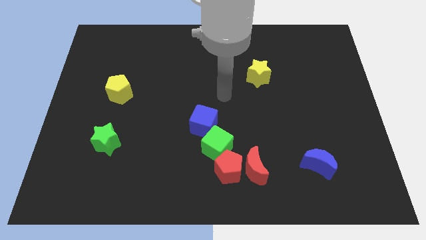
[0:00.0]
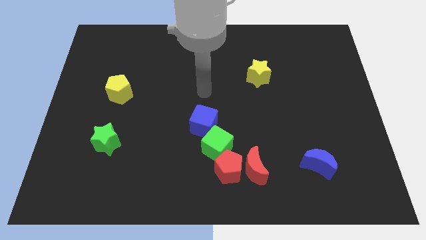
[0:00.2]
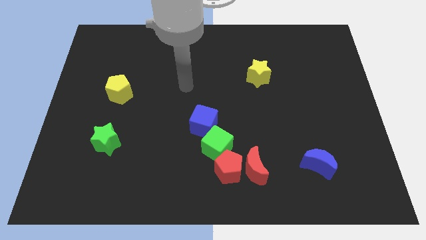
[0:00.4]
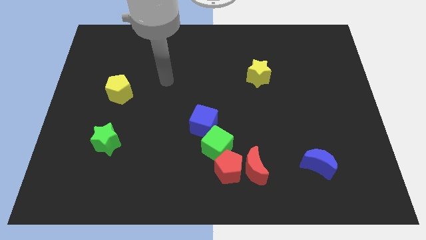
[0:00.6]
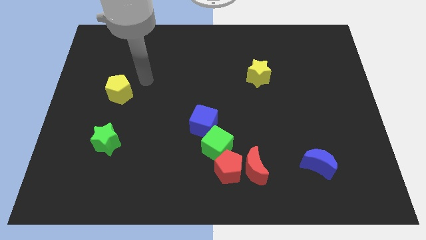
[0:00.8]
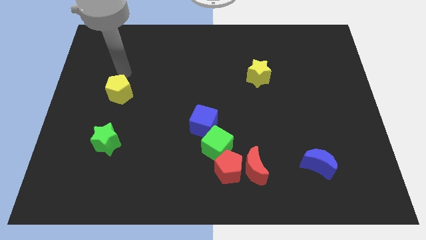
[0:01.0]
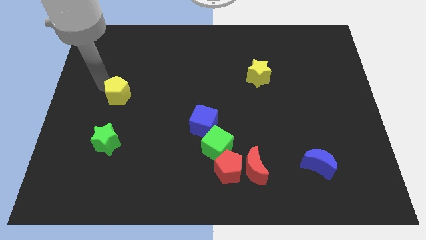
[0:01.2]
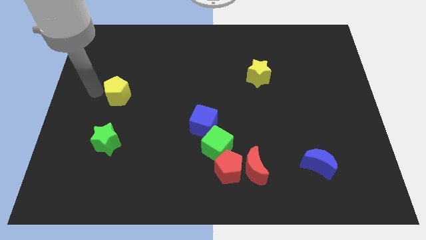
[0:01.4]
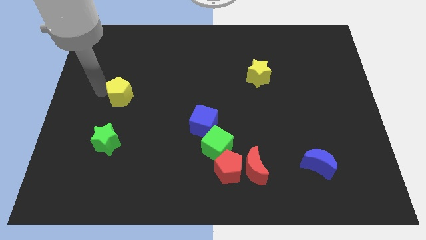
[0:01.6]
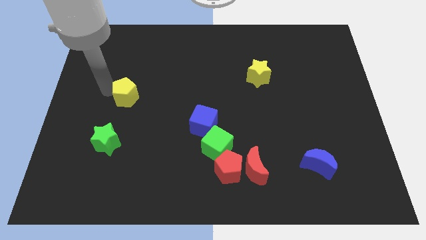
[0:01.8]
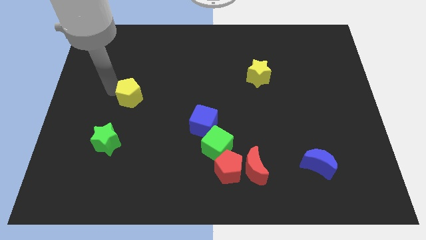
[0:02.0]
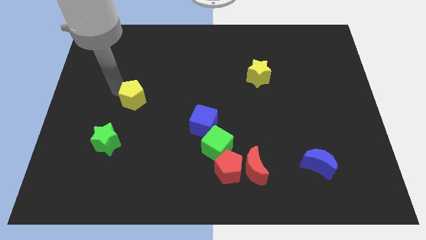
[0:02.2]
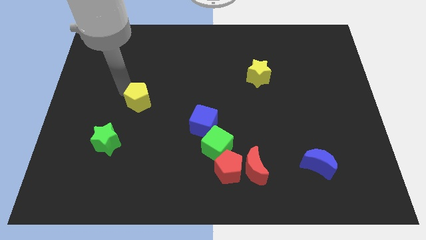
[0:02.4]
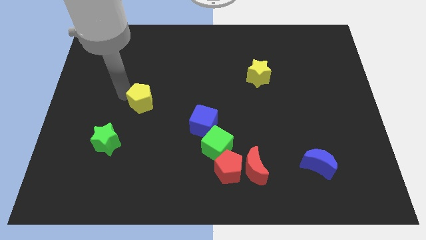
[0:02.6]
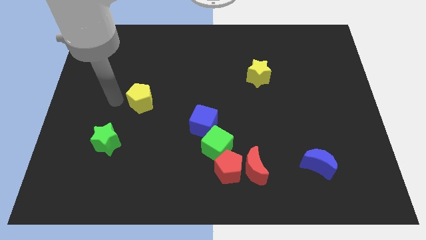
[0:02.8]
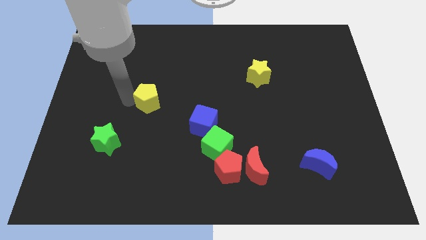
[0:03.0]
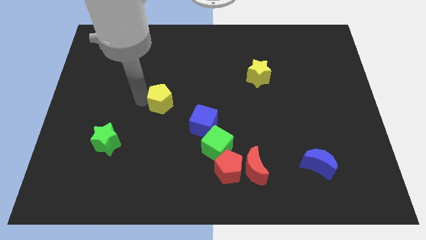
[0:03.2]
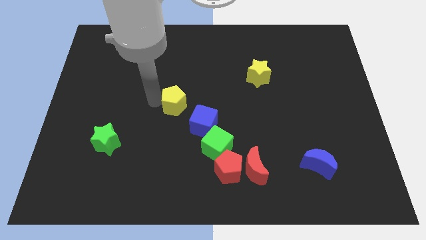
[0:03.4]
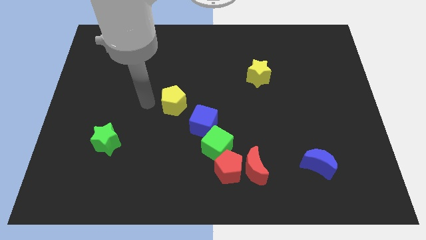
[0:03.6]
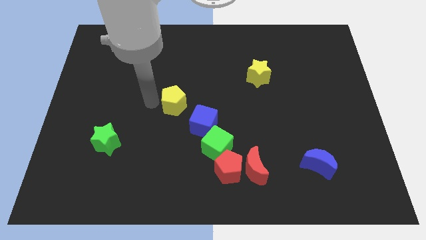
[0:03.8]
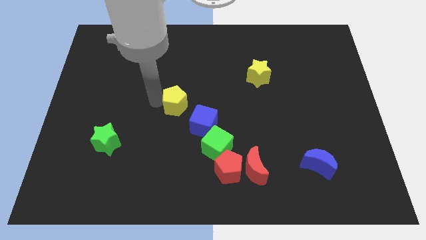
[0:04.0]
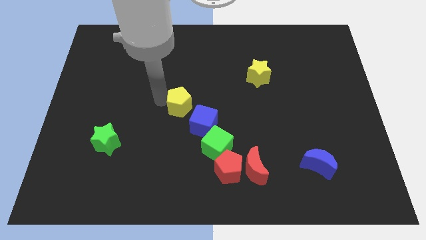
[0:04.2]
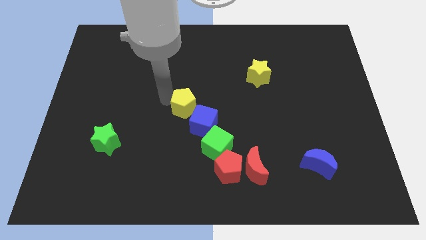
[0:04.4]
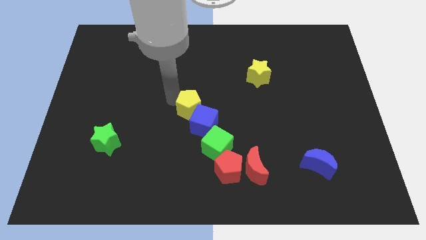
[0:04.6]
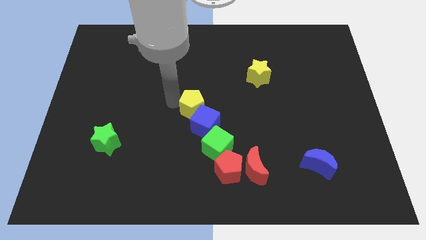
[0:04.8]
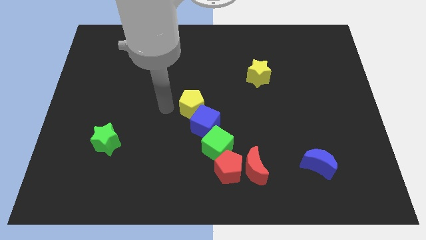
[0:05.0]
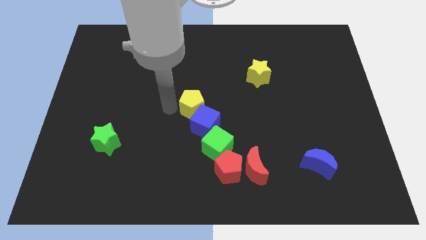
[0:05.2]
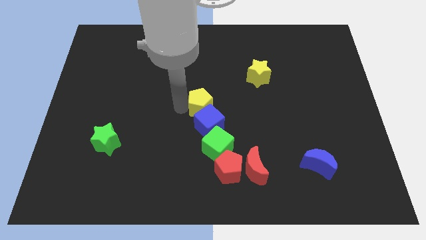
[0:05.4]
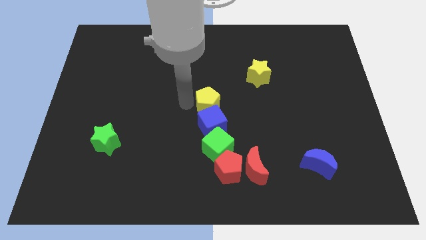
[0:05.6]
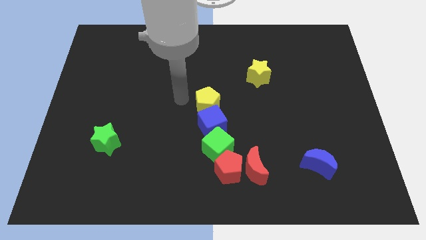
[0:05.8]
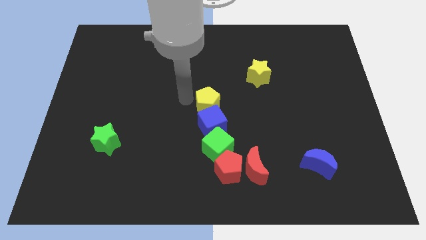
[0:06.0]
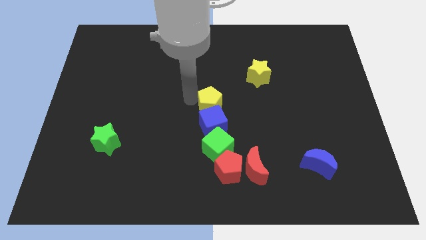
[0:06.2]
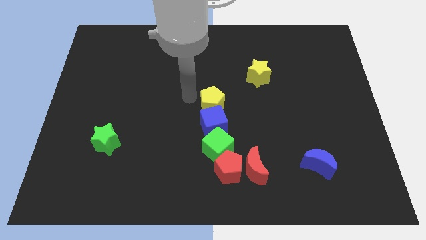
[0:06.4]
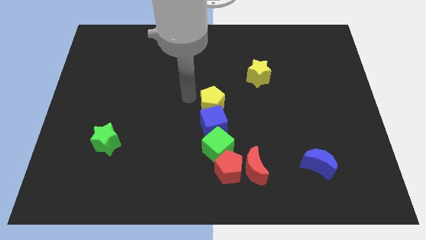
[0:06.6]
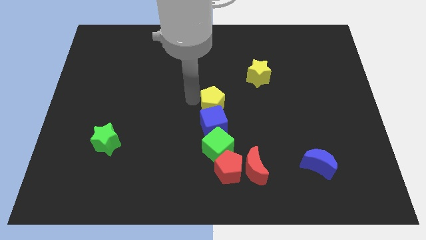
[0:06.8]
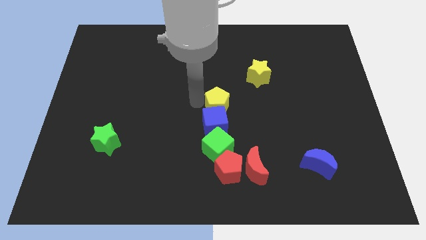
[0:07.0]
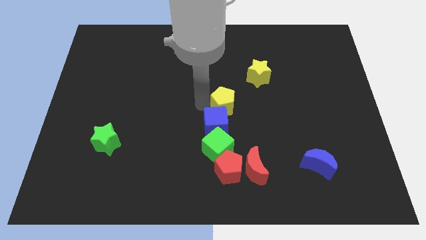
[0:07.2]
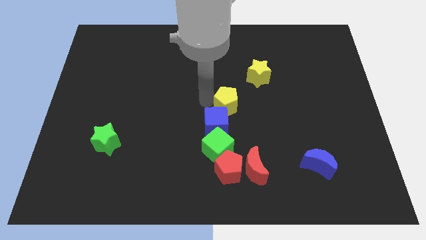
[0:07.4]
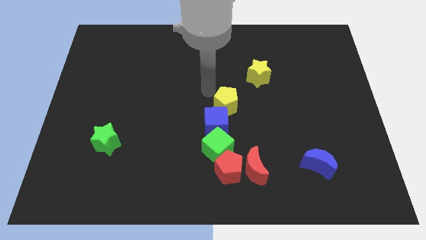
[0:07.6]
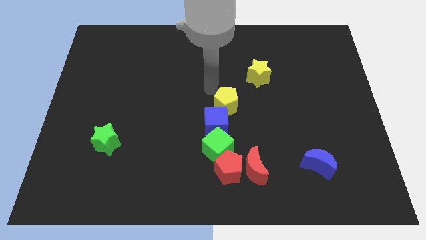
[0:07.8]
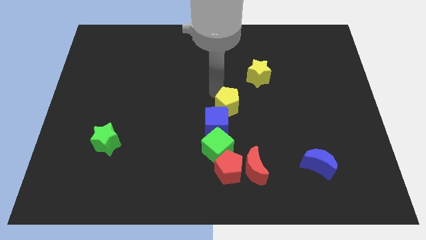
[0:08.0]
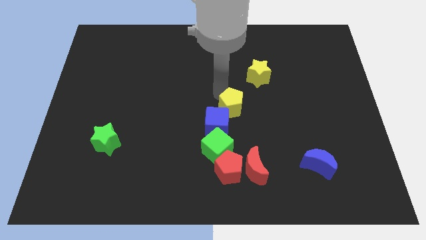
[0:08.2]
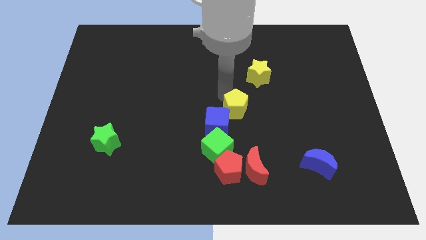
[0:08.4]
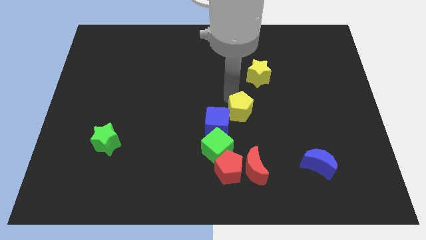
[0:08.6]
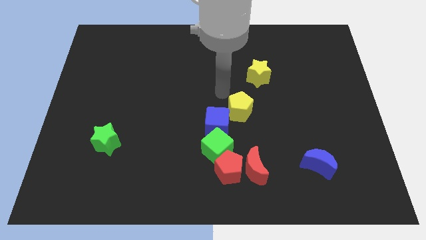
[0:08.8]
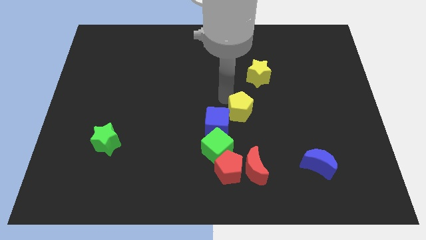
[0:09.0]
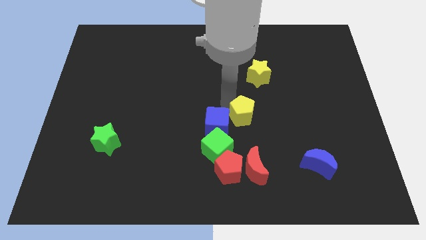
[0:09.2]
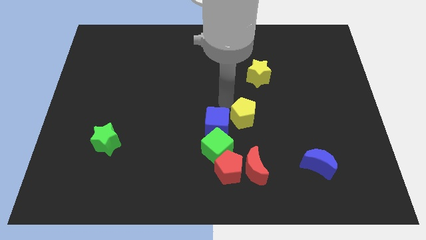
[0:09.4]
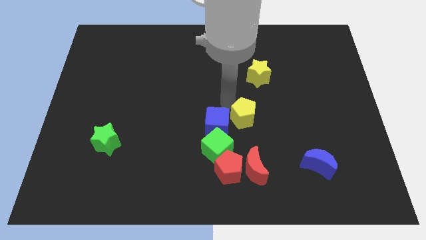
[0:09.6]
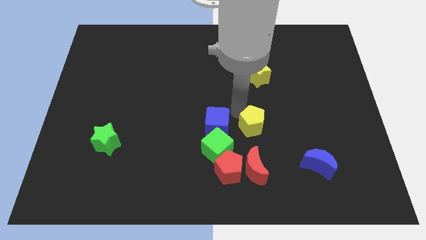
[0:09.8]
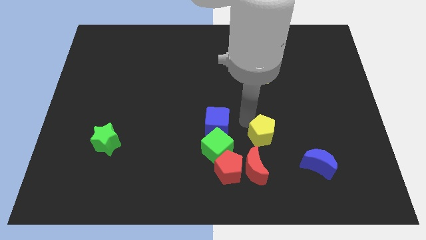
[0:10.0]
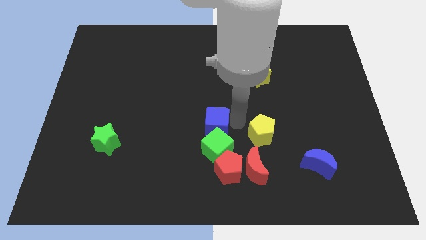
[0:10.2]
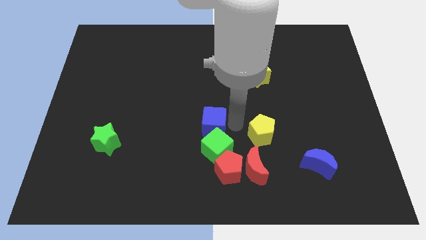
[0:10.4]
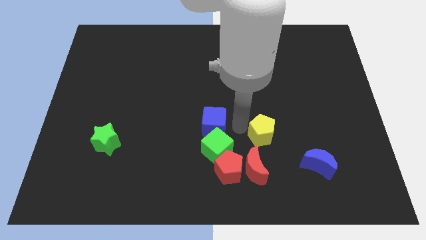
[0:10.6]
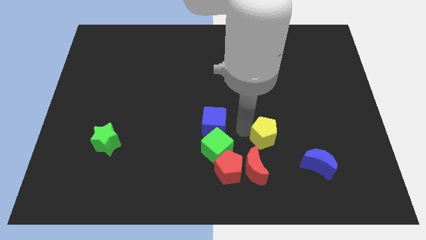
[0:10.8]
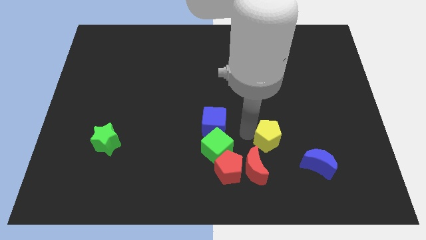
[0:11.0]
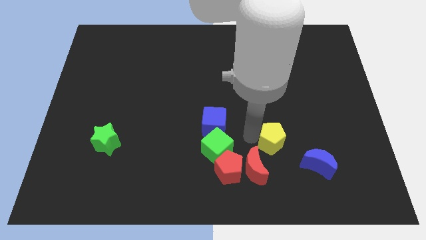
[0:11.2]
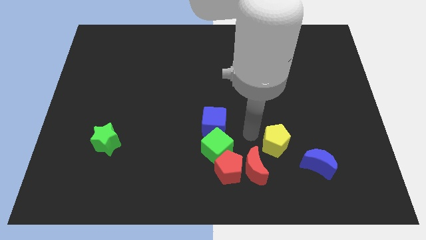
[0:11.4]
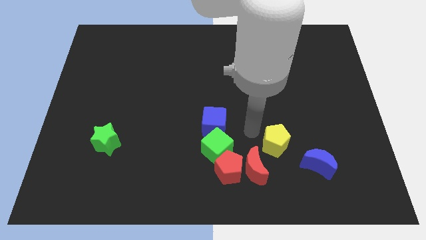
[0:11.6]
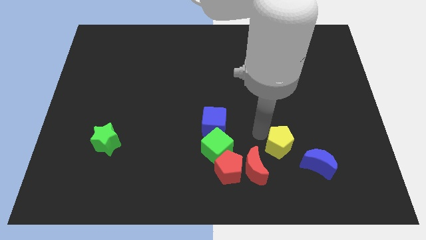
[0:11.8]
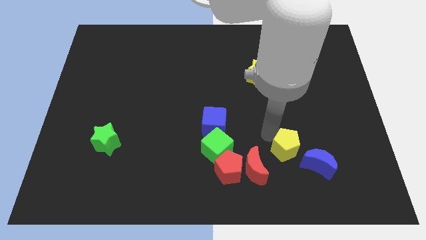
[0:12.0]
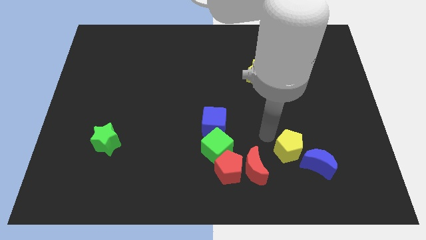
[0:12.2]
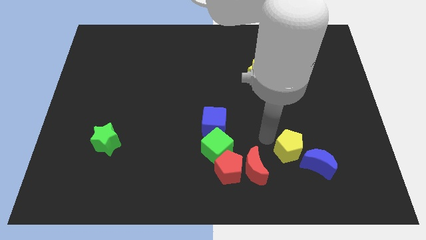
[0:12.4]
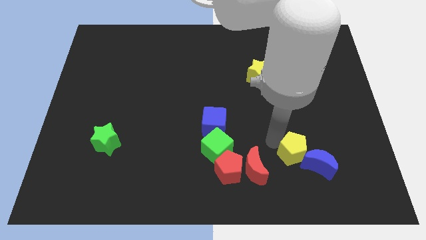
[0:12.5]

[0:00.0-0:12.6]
slide the yellow pentagon towards the blue moon
